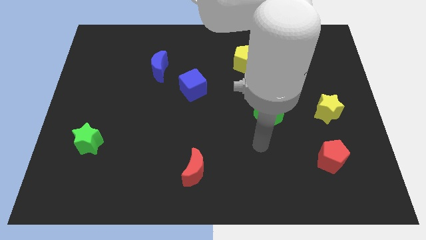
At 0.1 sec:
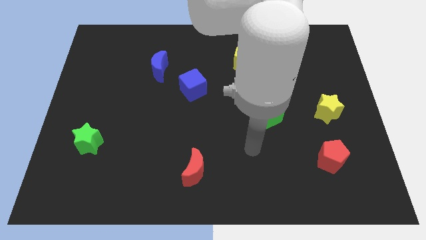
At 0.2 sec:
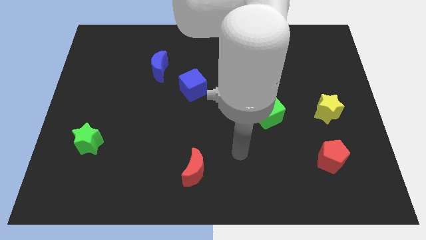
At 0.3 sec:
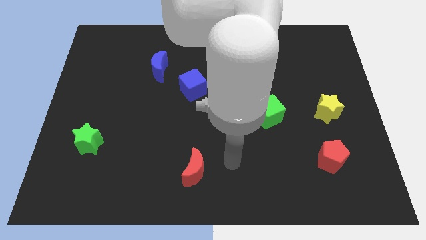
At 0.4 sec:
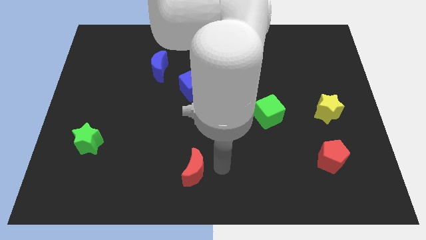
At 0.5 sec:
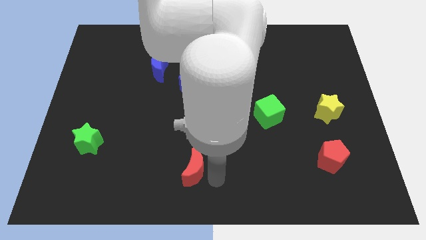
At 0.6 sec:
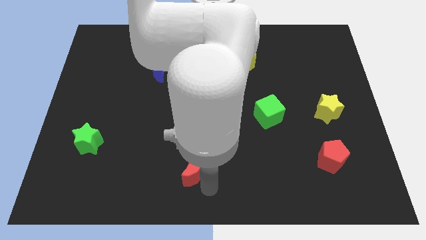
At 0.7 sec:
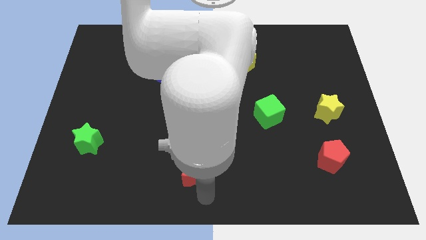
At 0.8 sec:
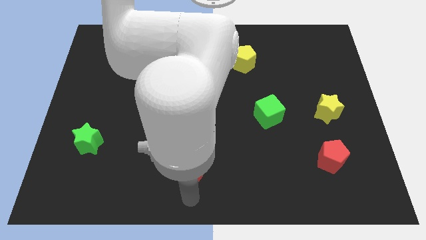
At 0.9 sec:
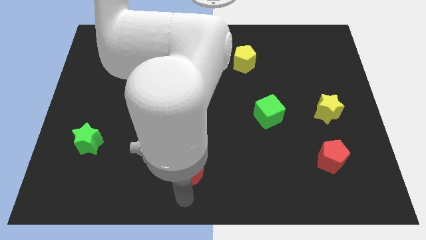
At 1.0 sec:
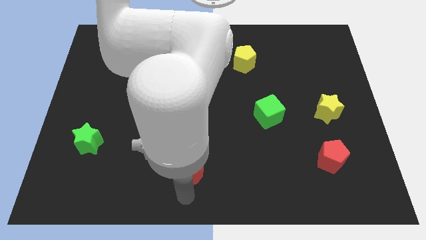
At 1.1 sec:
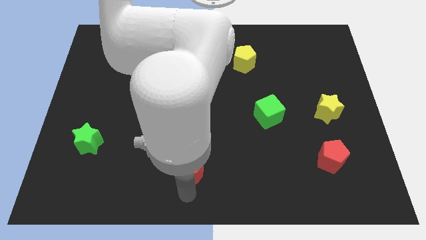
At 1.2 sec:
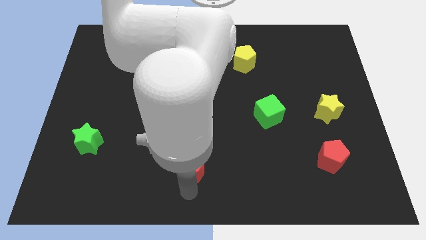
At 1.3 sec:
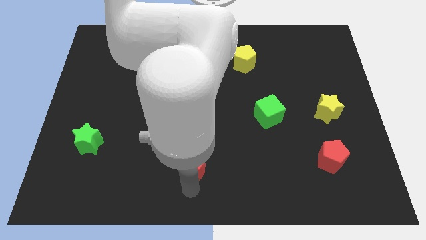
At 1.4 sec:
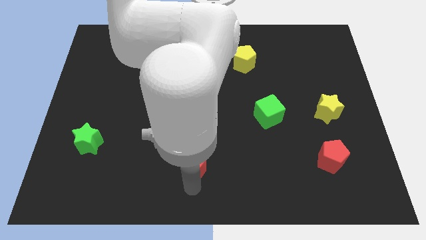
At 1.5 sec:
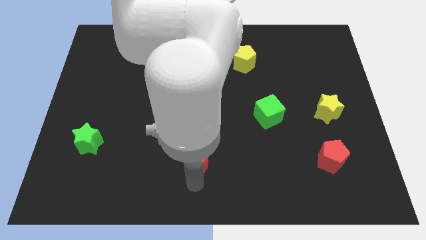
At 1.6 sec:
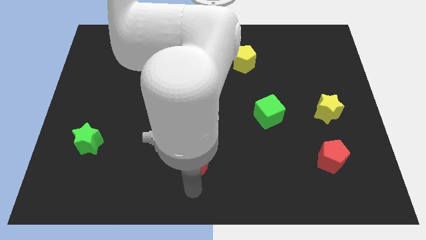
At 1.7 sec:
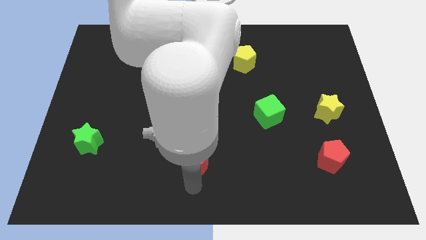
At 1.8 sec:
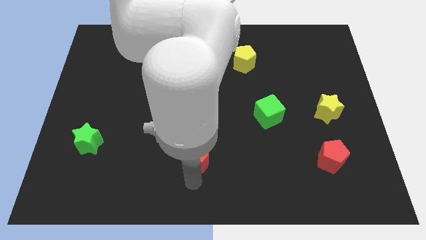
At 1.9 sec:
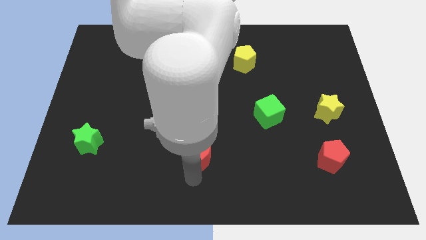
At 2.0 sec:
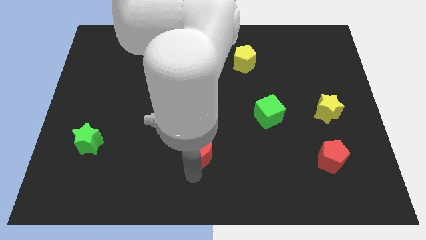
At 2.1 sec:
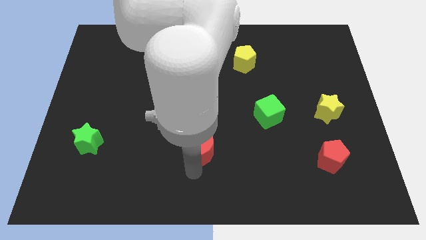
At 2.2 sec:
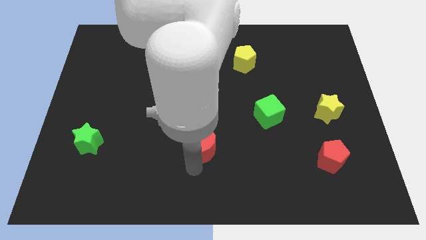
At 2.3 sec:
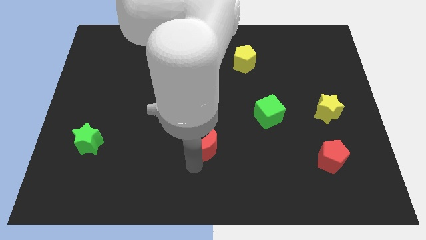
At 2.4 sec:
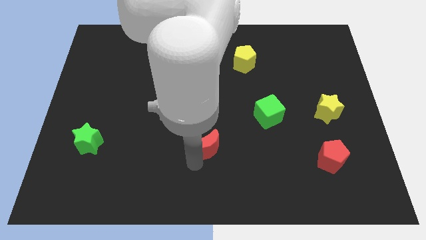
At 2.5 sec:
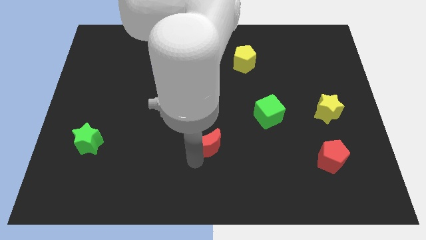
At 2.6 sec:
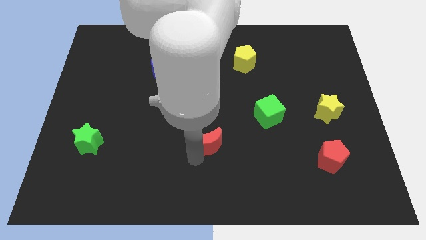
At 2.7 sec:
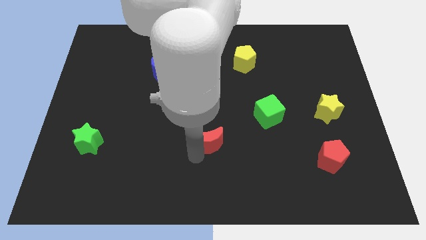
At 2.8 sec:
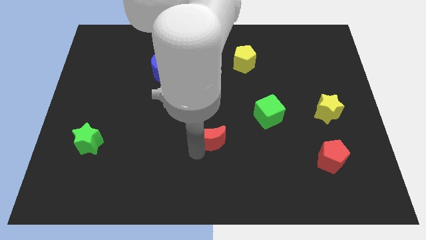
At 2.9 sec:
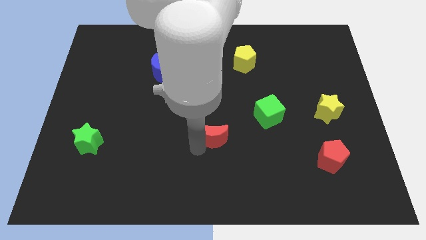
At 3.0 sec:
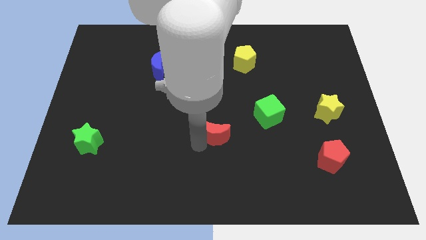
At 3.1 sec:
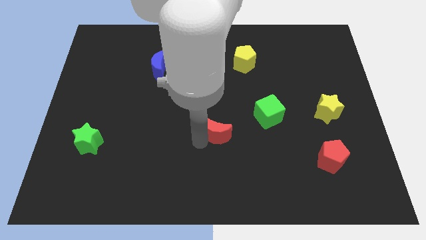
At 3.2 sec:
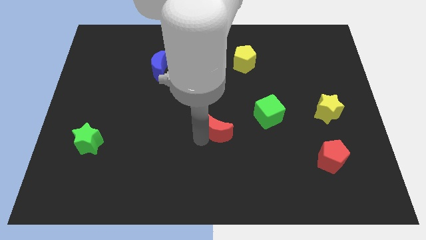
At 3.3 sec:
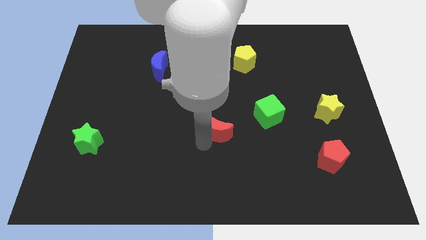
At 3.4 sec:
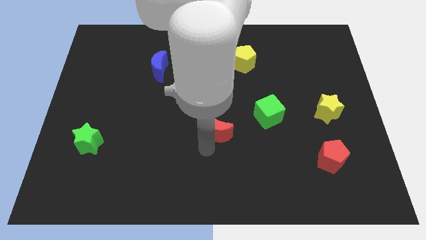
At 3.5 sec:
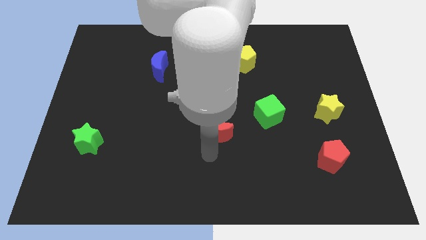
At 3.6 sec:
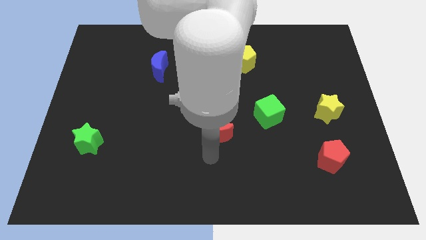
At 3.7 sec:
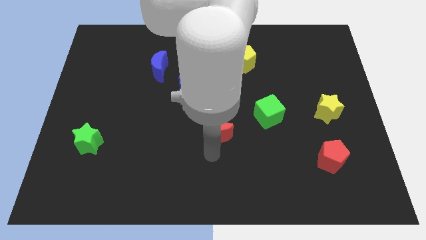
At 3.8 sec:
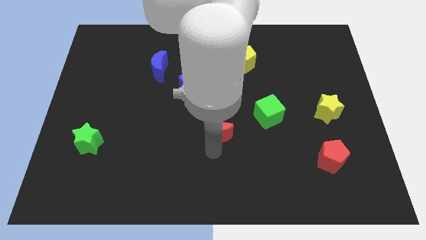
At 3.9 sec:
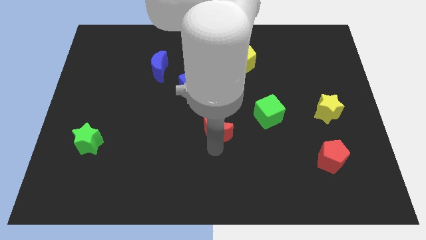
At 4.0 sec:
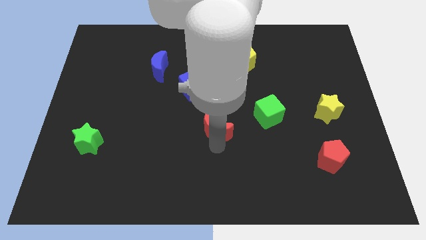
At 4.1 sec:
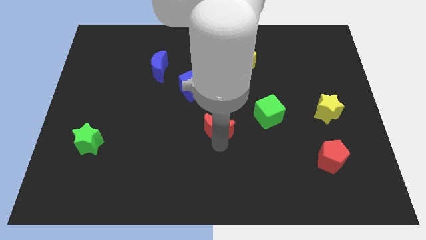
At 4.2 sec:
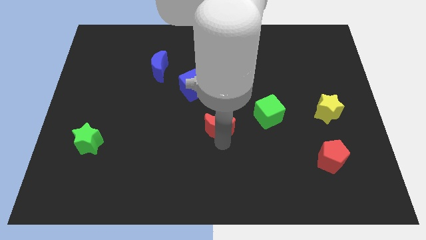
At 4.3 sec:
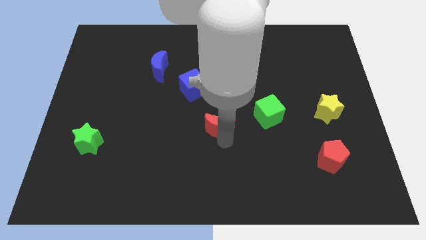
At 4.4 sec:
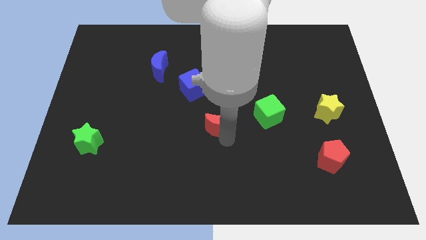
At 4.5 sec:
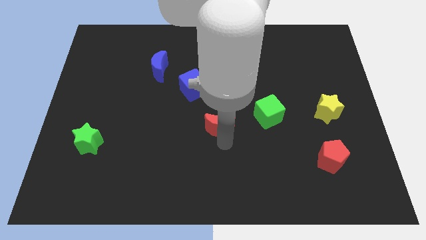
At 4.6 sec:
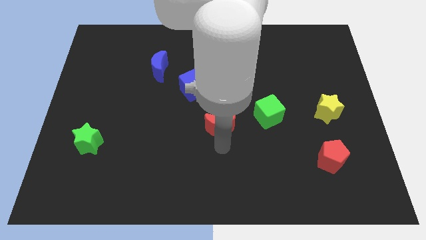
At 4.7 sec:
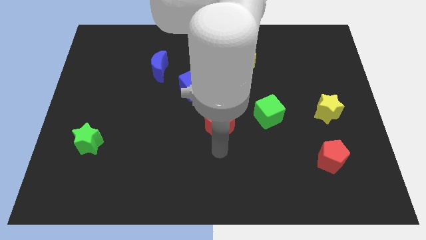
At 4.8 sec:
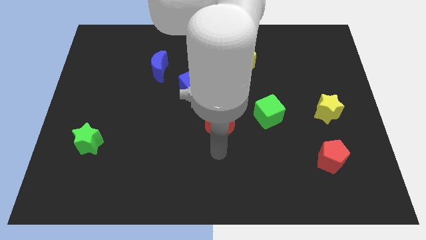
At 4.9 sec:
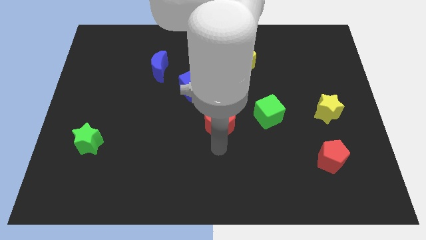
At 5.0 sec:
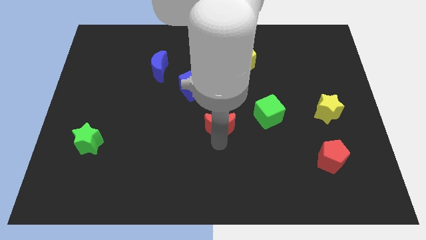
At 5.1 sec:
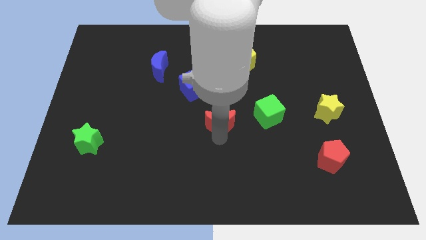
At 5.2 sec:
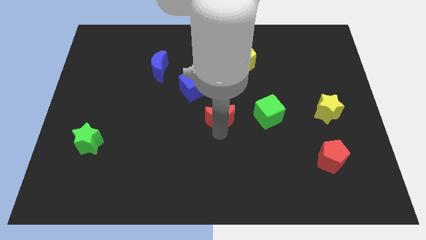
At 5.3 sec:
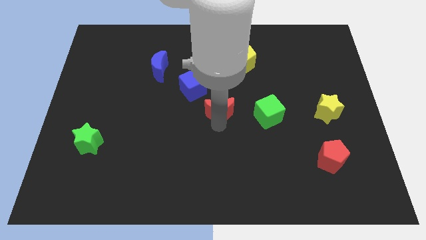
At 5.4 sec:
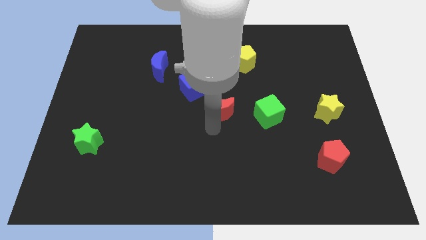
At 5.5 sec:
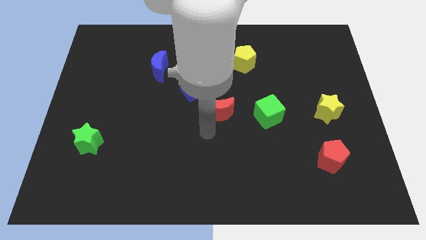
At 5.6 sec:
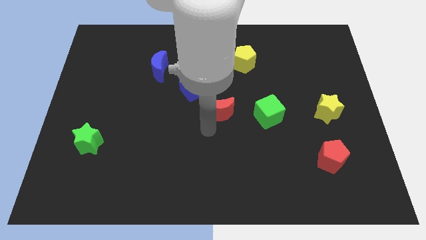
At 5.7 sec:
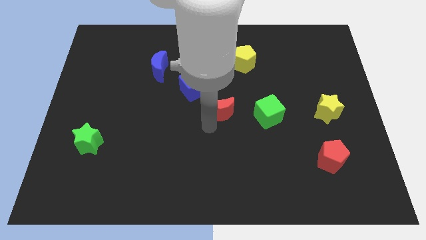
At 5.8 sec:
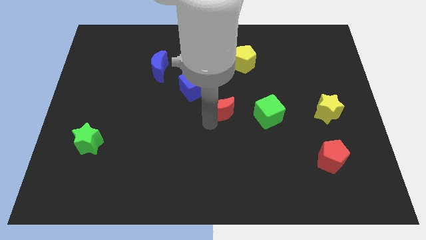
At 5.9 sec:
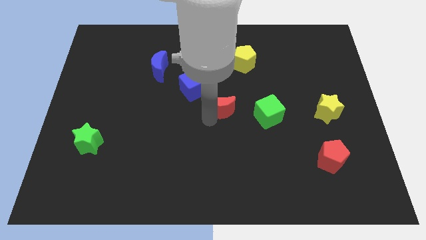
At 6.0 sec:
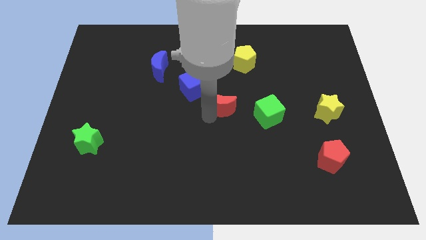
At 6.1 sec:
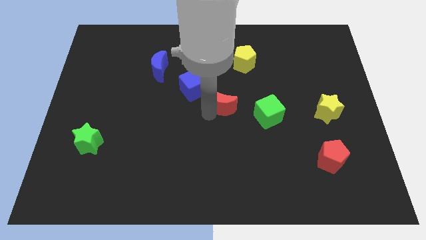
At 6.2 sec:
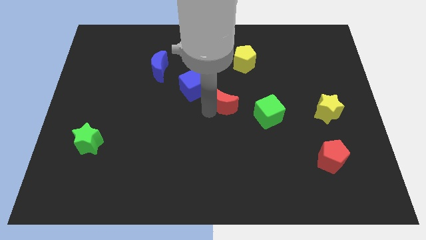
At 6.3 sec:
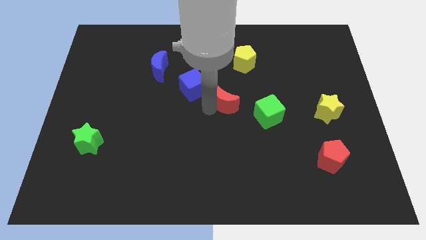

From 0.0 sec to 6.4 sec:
slide the red moon right of the blue cube
